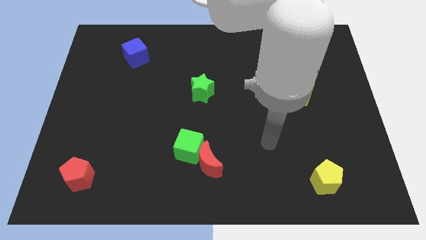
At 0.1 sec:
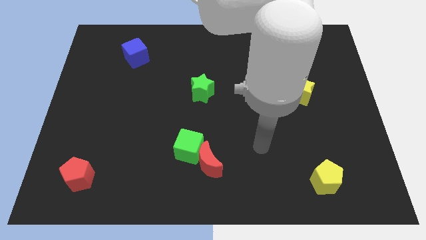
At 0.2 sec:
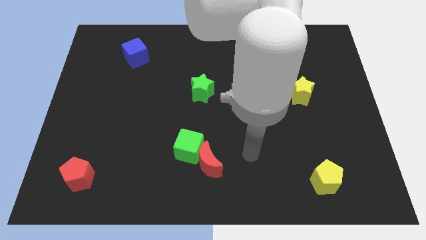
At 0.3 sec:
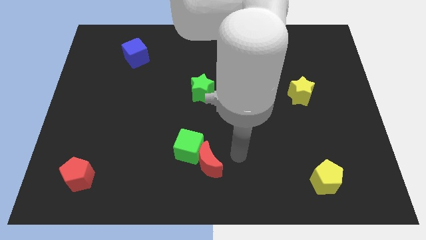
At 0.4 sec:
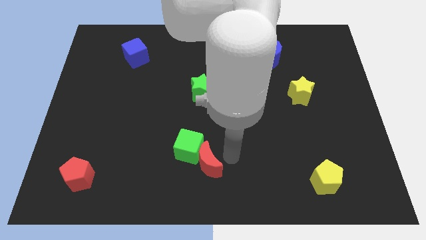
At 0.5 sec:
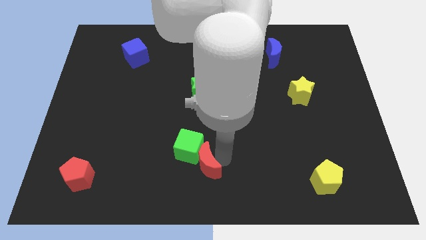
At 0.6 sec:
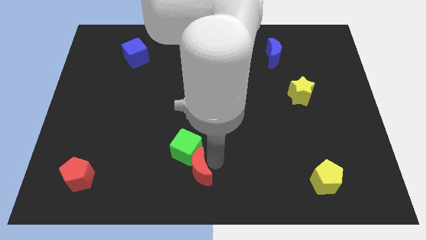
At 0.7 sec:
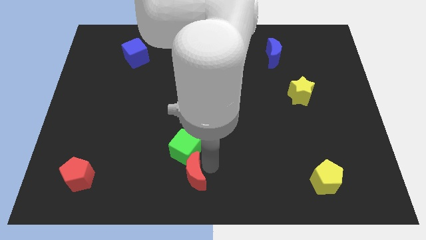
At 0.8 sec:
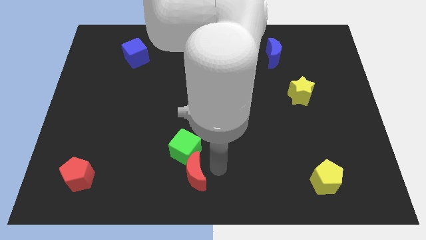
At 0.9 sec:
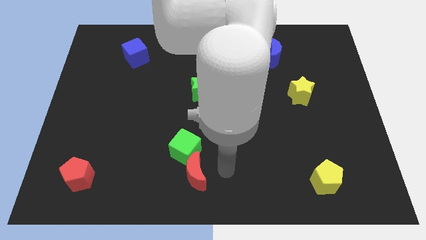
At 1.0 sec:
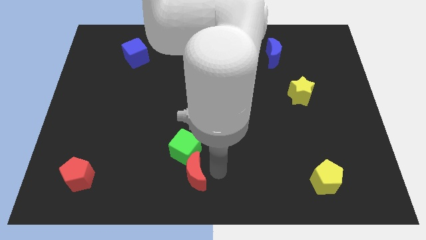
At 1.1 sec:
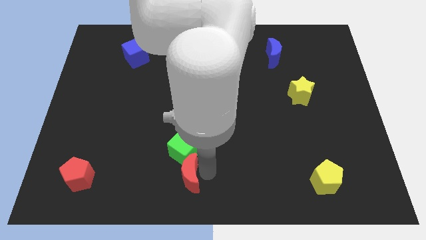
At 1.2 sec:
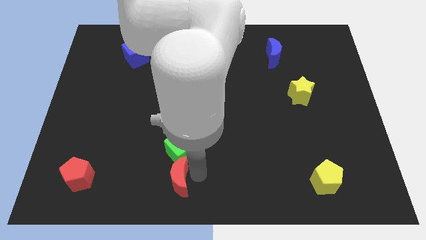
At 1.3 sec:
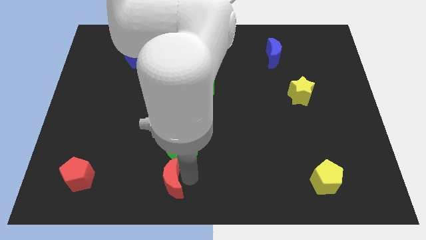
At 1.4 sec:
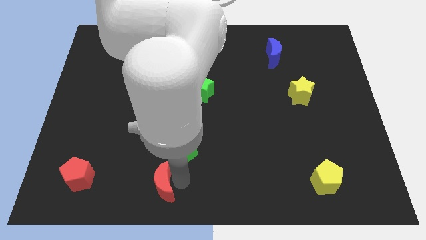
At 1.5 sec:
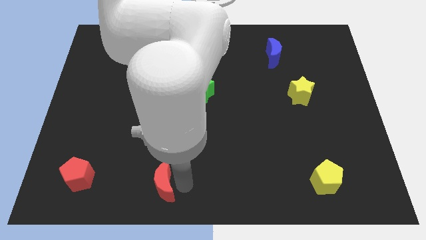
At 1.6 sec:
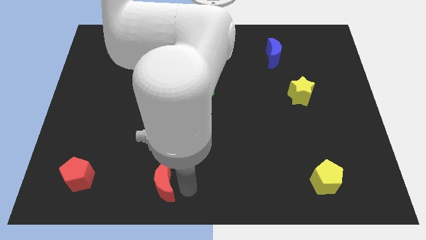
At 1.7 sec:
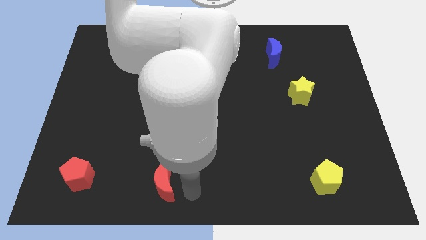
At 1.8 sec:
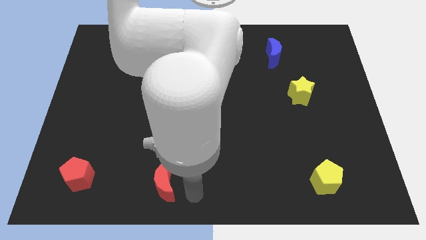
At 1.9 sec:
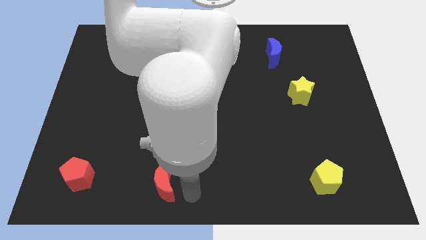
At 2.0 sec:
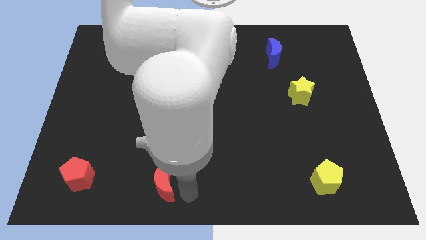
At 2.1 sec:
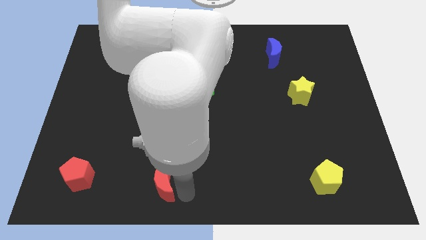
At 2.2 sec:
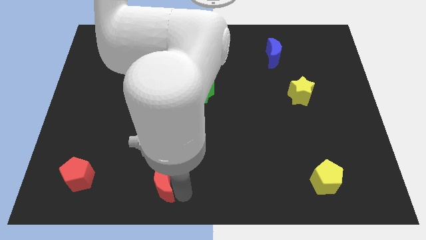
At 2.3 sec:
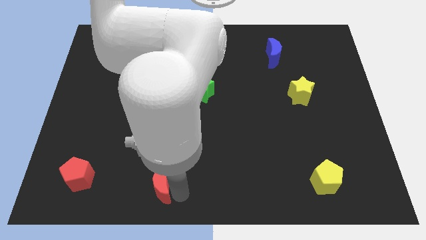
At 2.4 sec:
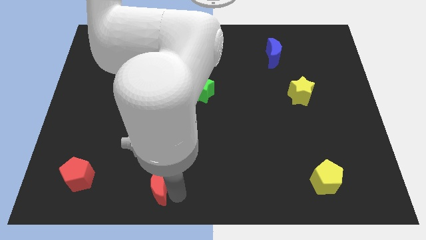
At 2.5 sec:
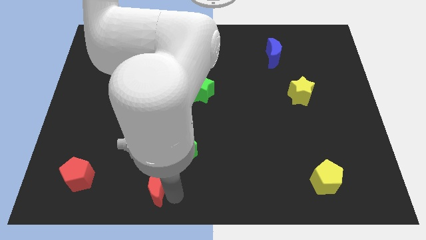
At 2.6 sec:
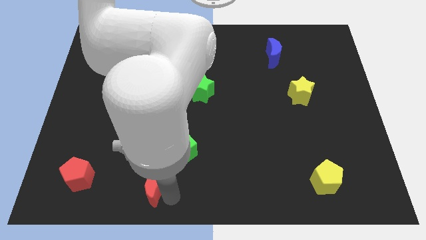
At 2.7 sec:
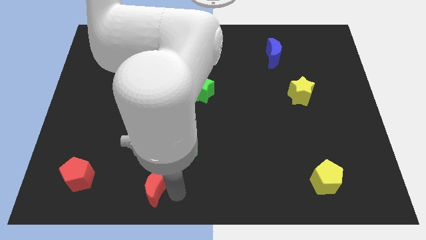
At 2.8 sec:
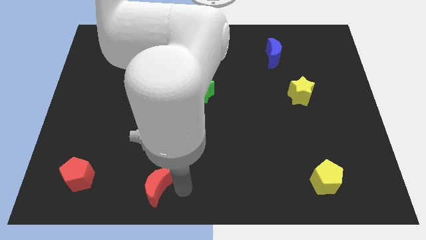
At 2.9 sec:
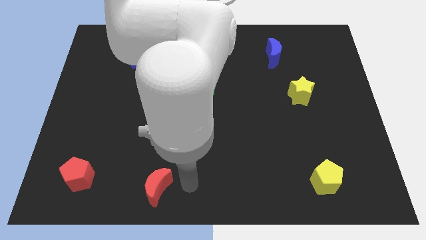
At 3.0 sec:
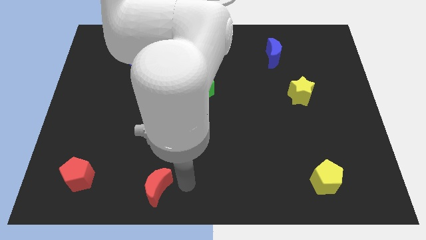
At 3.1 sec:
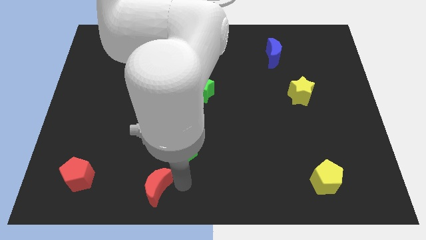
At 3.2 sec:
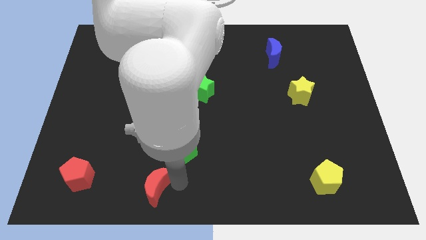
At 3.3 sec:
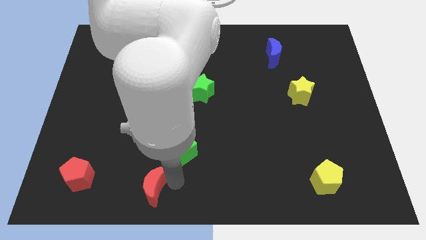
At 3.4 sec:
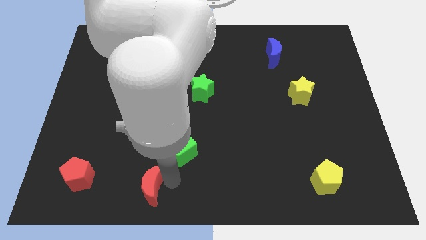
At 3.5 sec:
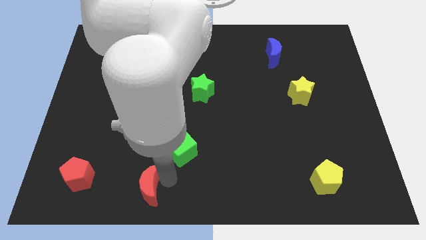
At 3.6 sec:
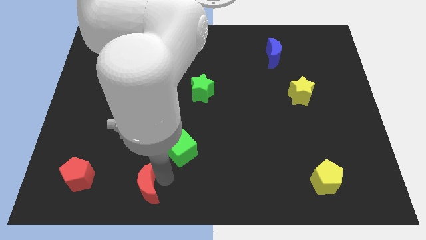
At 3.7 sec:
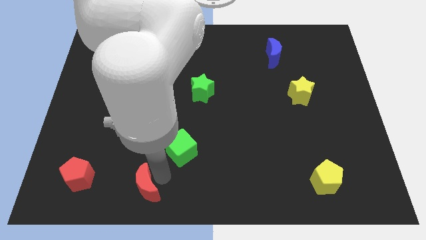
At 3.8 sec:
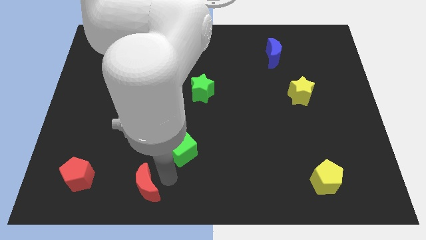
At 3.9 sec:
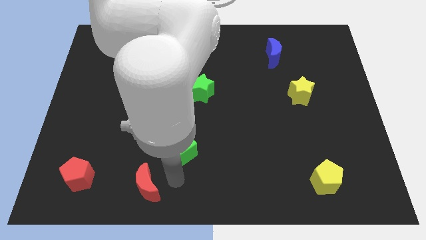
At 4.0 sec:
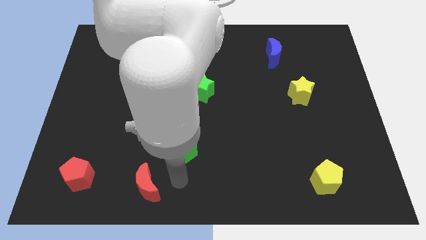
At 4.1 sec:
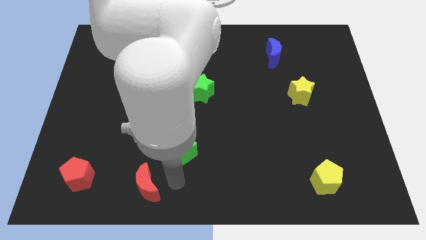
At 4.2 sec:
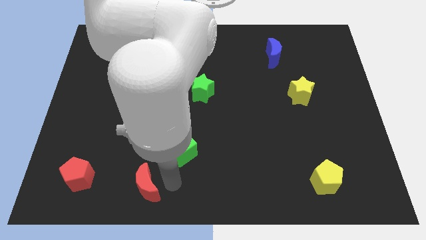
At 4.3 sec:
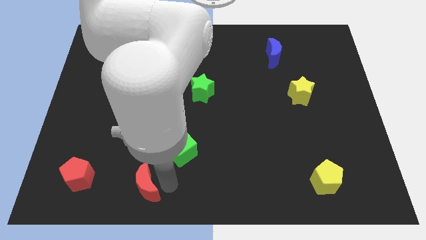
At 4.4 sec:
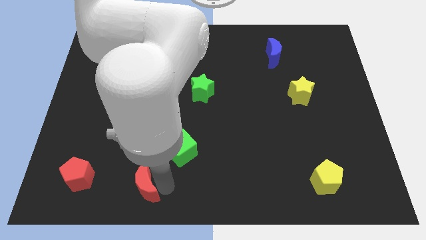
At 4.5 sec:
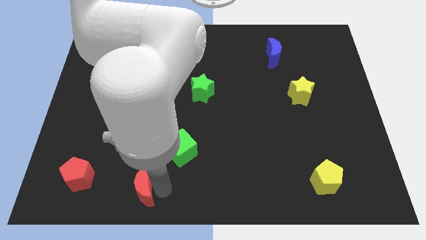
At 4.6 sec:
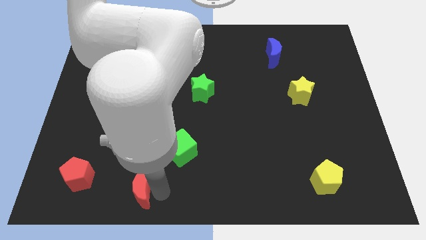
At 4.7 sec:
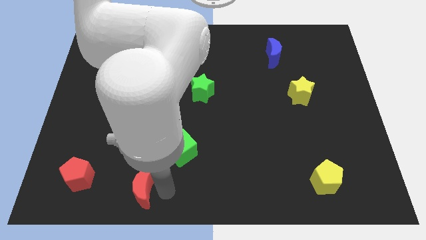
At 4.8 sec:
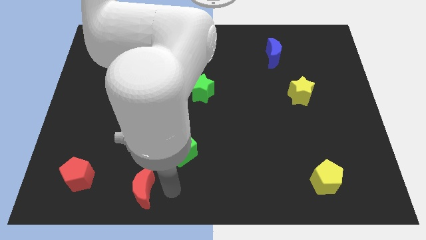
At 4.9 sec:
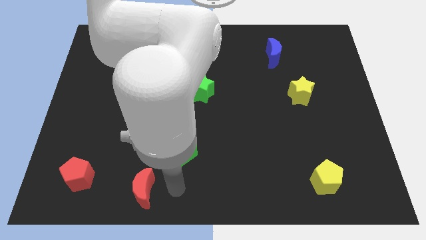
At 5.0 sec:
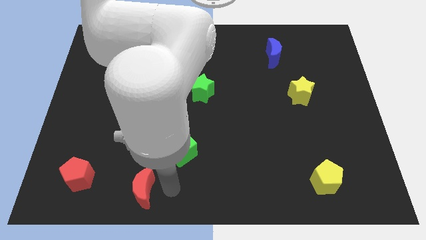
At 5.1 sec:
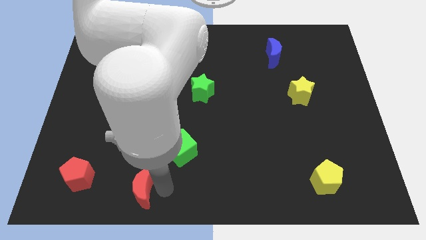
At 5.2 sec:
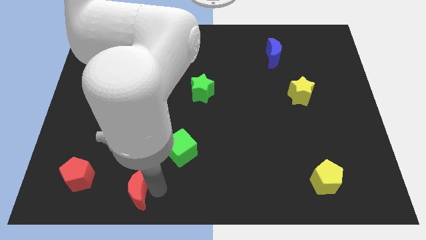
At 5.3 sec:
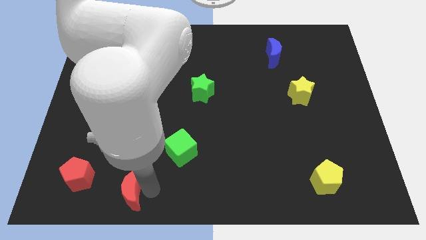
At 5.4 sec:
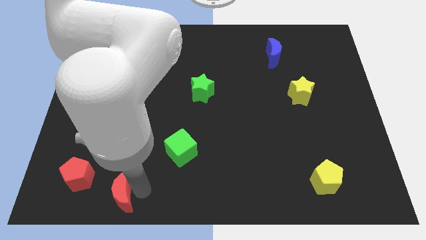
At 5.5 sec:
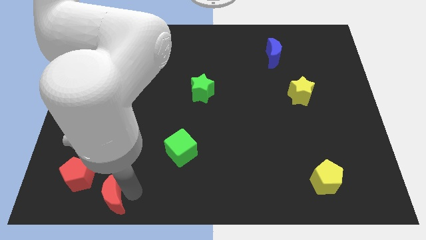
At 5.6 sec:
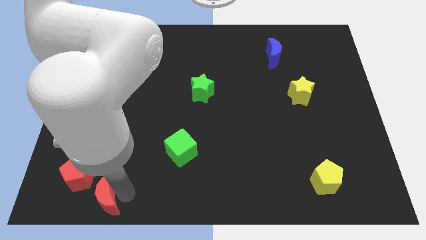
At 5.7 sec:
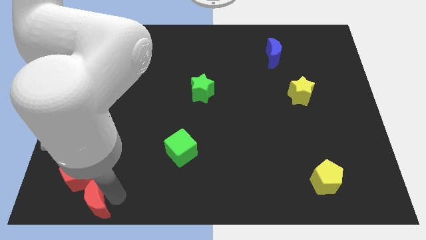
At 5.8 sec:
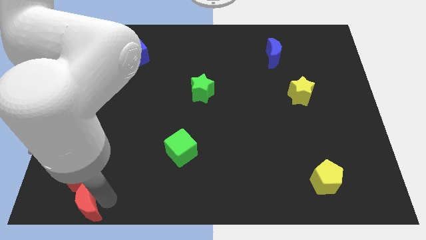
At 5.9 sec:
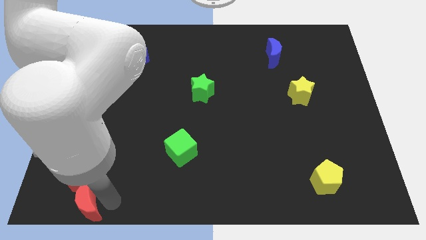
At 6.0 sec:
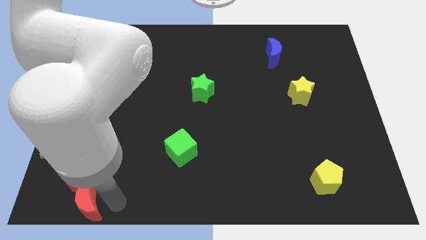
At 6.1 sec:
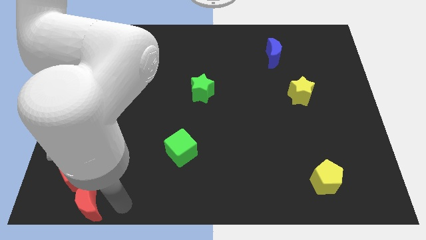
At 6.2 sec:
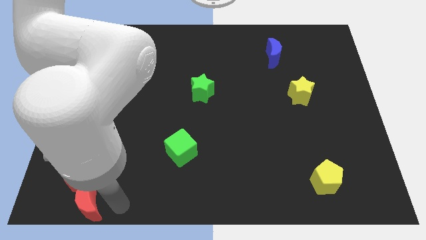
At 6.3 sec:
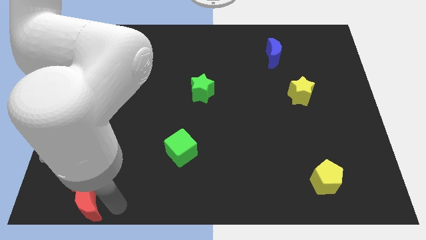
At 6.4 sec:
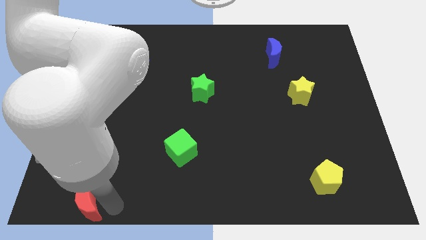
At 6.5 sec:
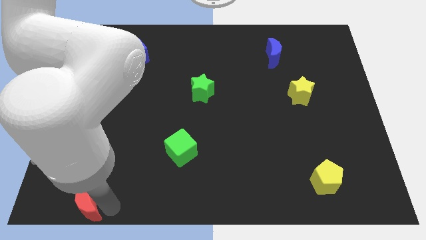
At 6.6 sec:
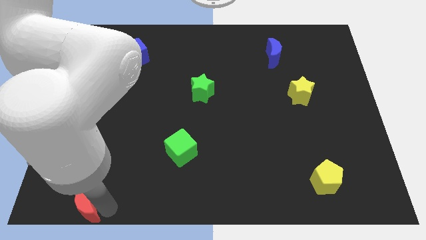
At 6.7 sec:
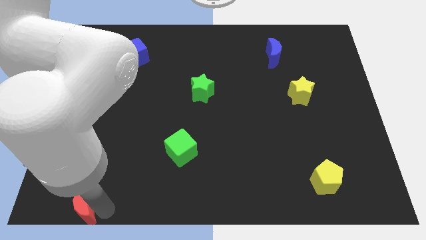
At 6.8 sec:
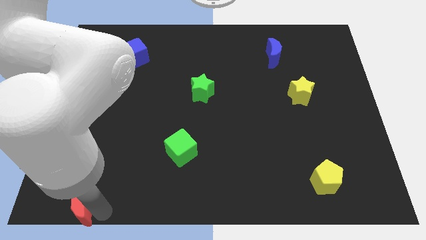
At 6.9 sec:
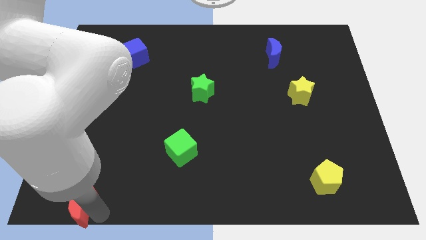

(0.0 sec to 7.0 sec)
move the red moon to the bottom left of the board
